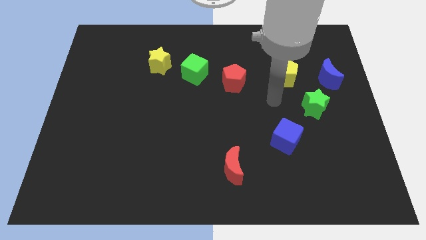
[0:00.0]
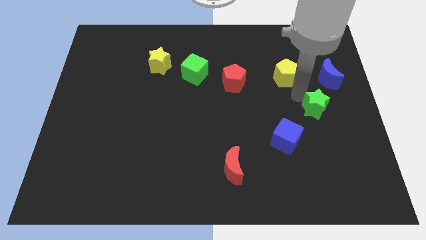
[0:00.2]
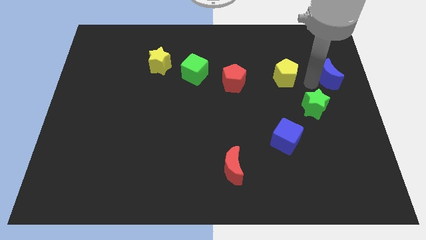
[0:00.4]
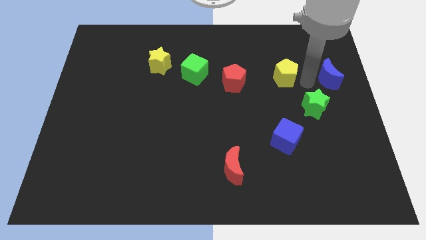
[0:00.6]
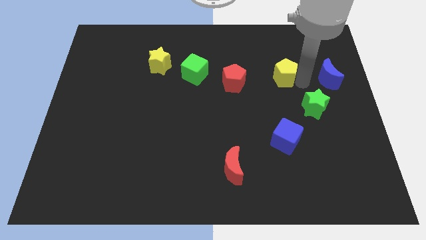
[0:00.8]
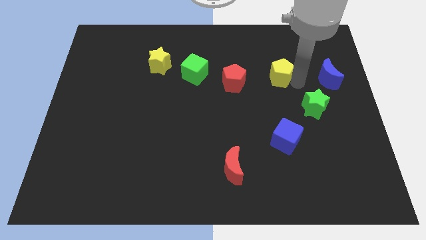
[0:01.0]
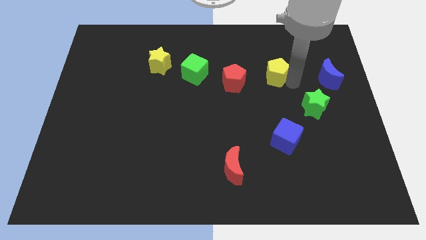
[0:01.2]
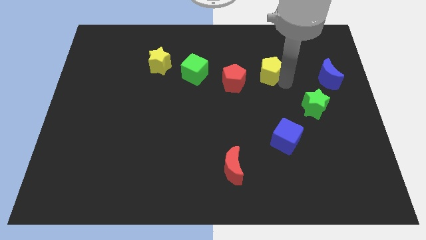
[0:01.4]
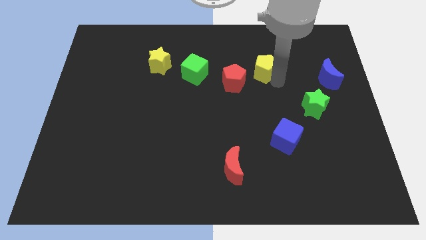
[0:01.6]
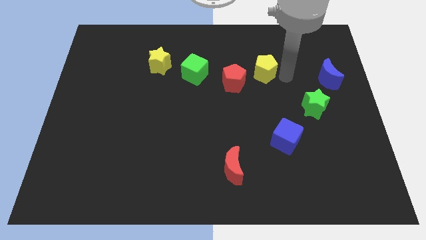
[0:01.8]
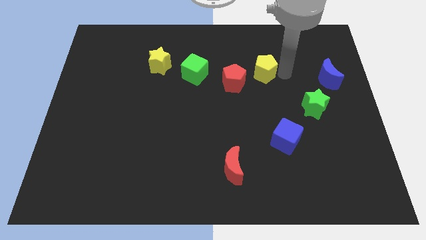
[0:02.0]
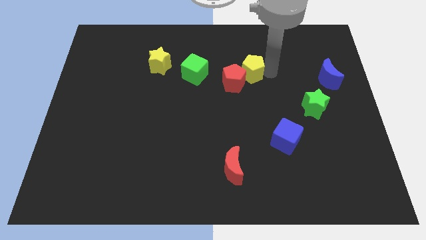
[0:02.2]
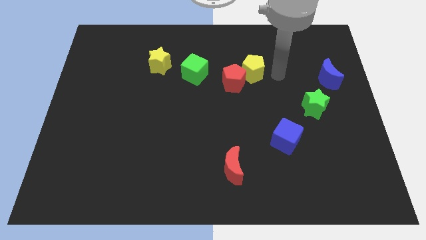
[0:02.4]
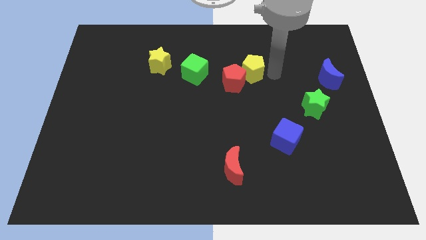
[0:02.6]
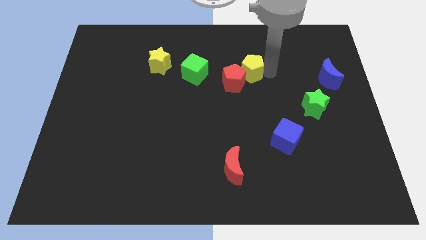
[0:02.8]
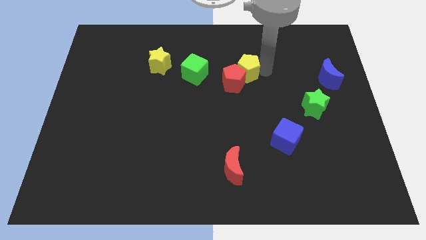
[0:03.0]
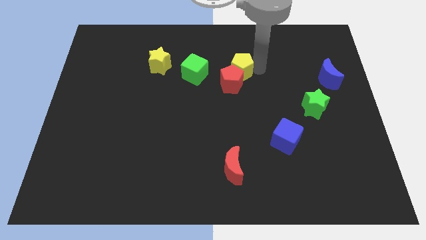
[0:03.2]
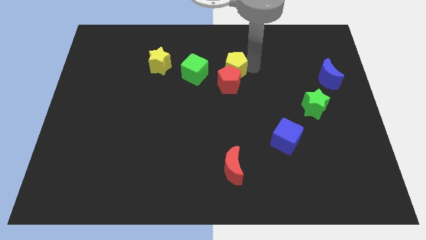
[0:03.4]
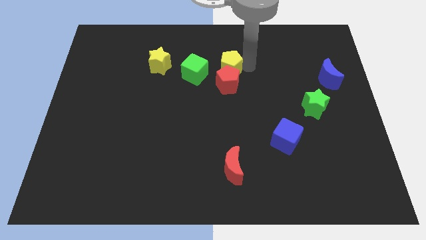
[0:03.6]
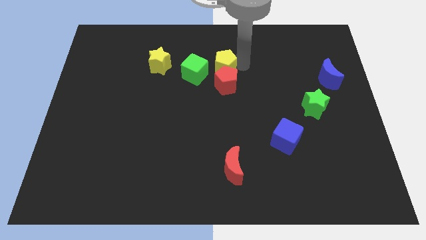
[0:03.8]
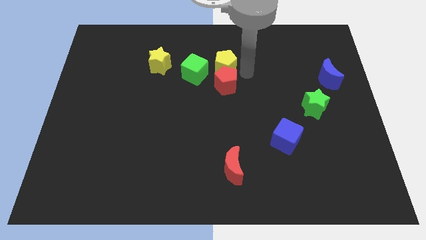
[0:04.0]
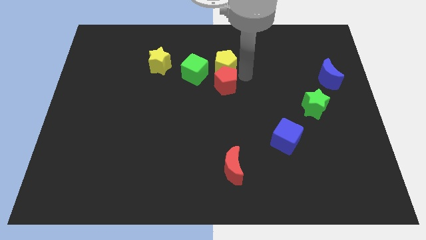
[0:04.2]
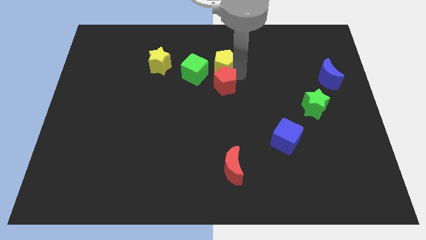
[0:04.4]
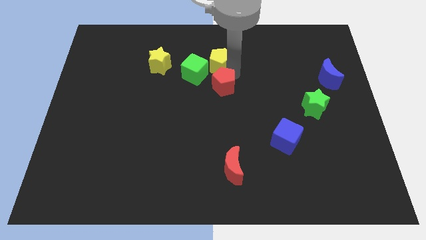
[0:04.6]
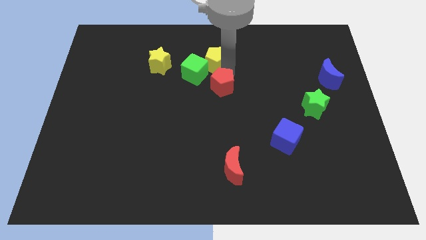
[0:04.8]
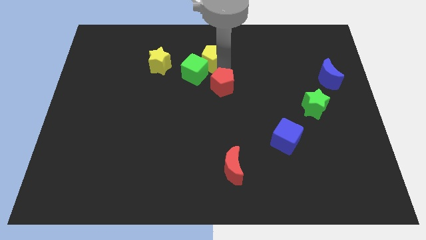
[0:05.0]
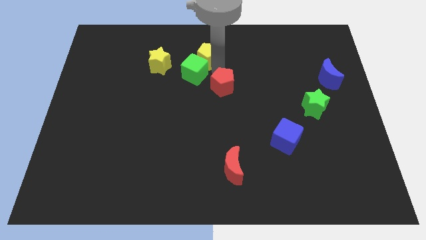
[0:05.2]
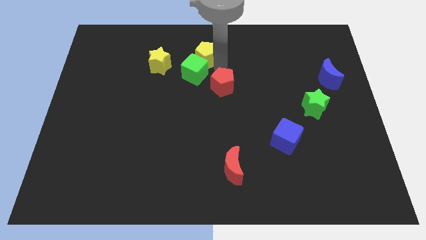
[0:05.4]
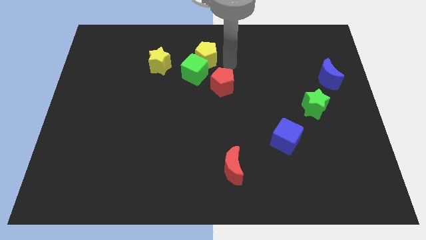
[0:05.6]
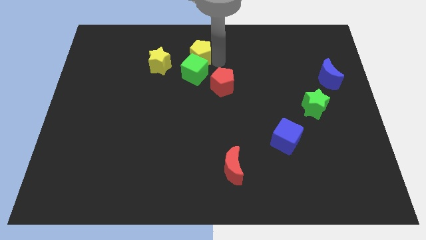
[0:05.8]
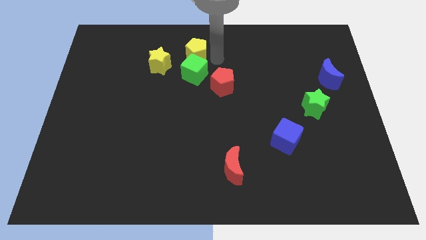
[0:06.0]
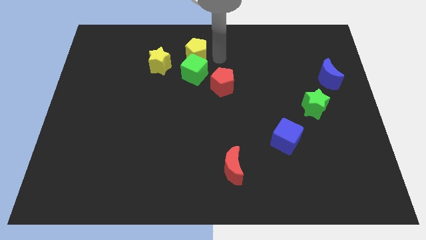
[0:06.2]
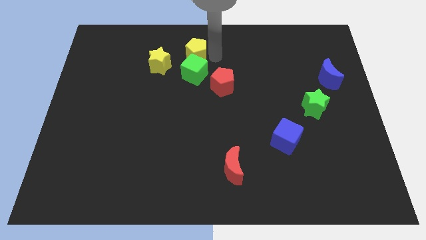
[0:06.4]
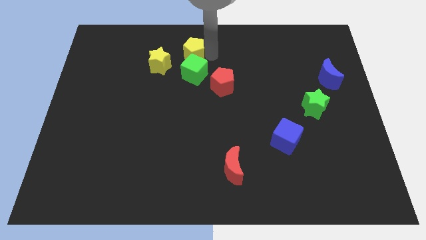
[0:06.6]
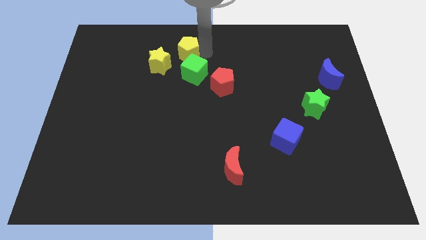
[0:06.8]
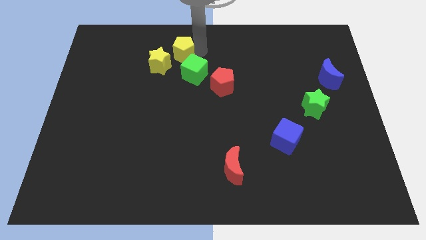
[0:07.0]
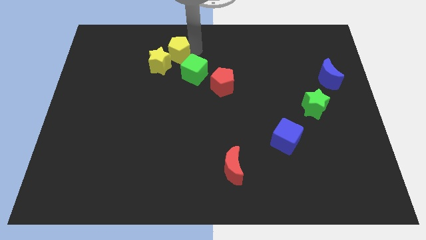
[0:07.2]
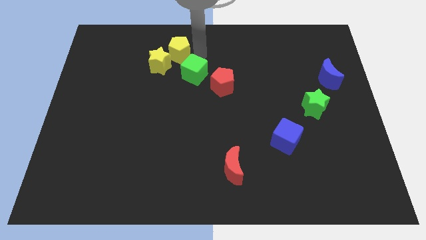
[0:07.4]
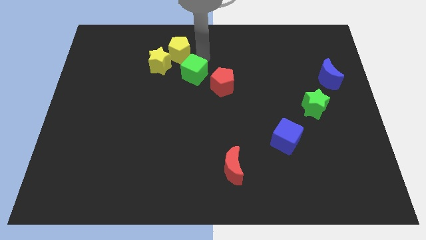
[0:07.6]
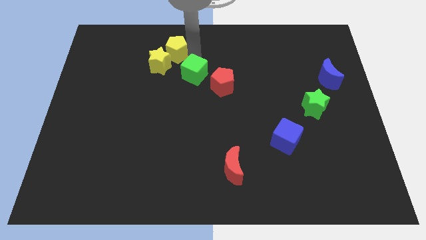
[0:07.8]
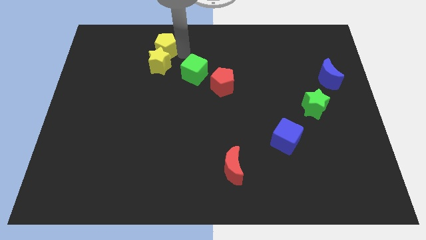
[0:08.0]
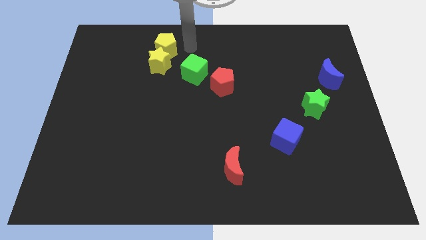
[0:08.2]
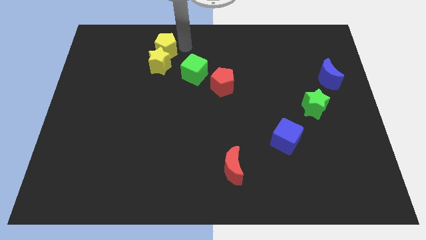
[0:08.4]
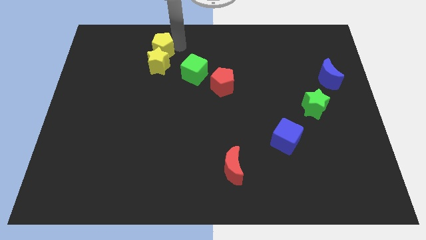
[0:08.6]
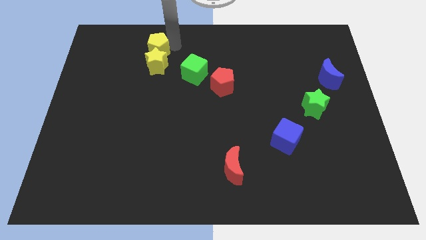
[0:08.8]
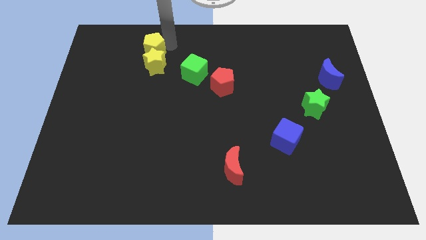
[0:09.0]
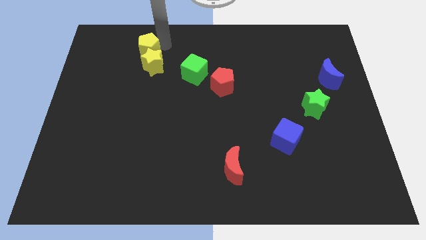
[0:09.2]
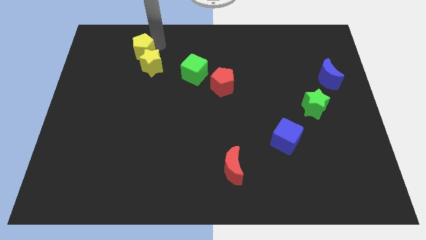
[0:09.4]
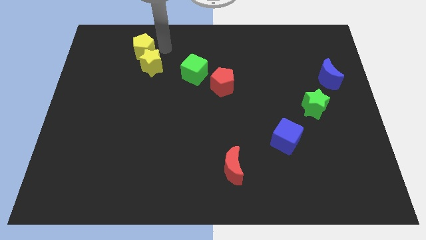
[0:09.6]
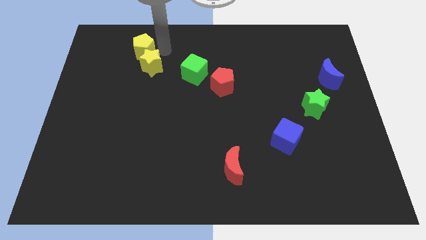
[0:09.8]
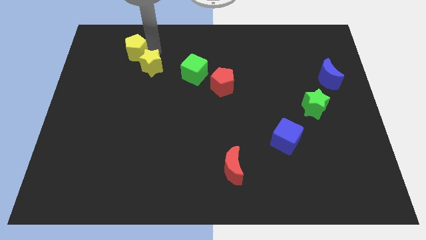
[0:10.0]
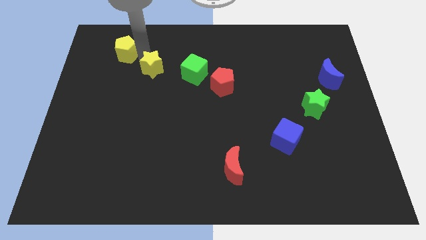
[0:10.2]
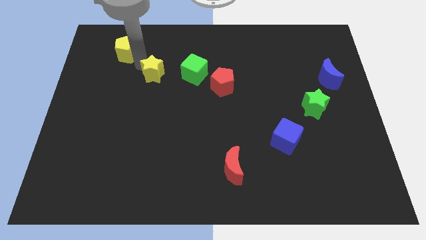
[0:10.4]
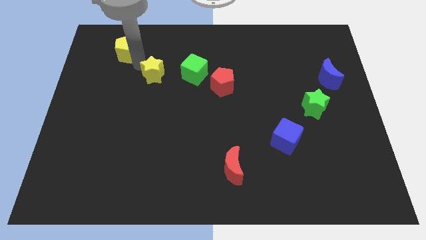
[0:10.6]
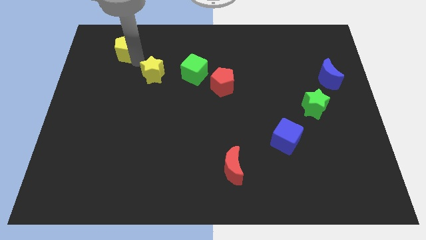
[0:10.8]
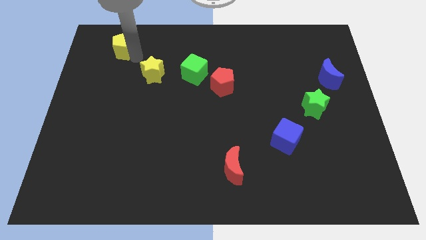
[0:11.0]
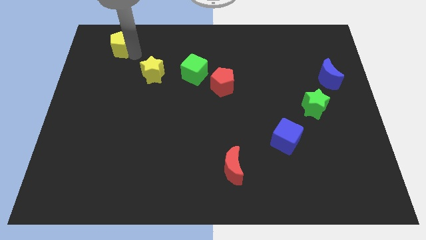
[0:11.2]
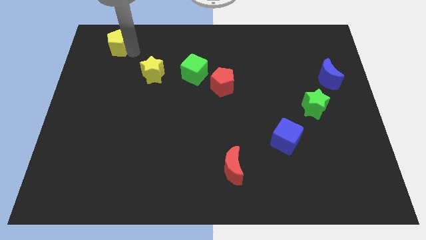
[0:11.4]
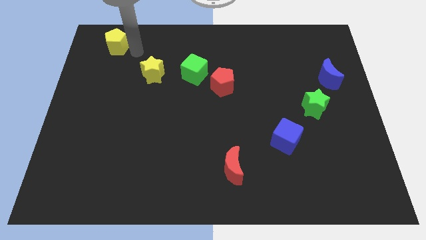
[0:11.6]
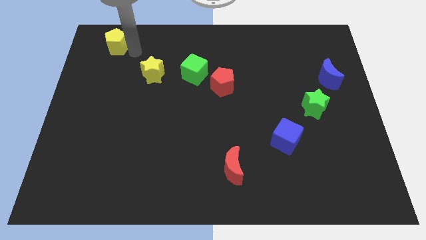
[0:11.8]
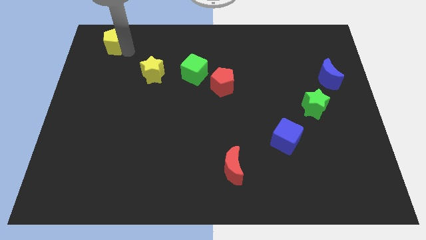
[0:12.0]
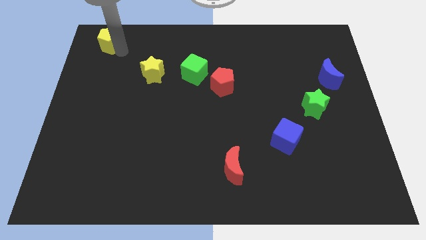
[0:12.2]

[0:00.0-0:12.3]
put the yellow pentagon to the top left of the board

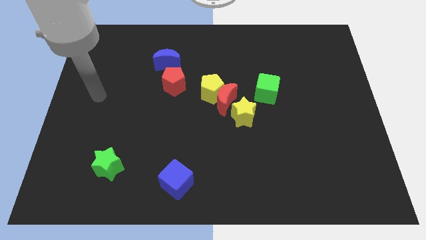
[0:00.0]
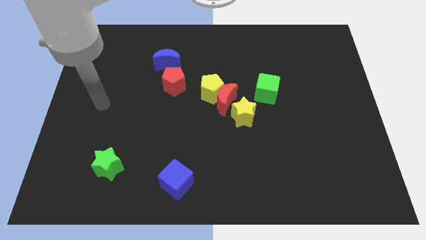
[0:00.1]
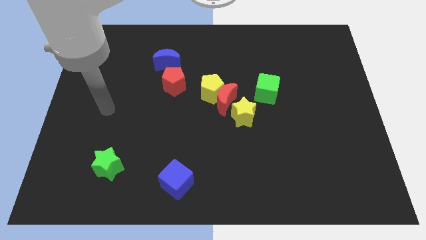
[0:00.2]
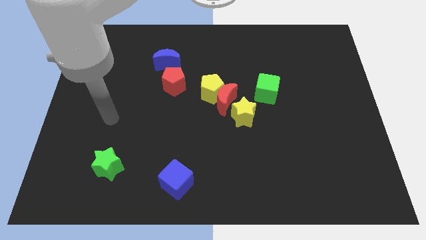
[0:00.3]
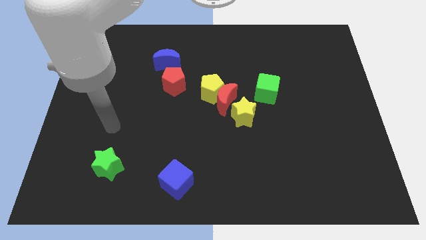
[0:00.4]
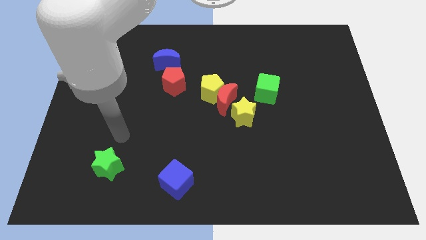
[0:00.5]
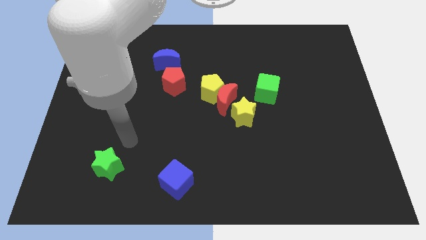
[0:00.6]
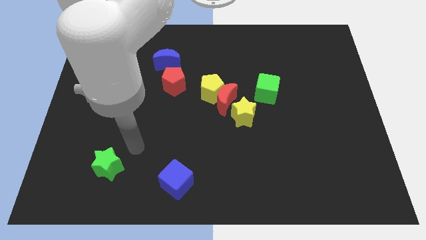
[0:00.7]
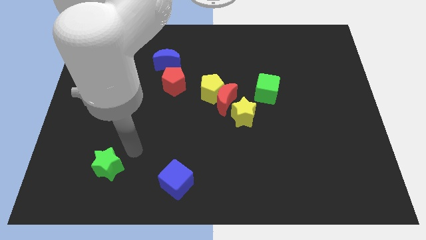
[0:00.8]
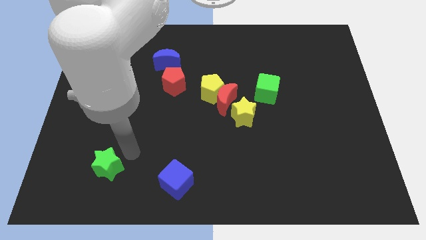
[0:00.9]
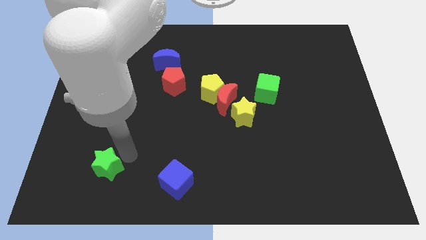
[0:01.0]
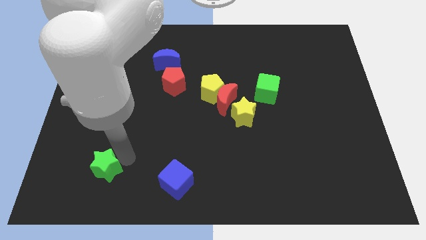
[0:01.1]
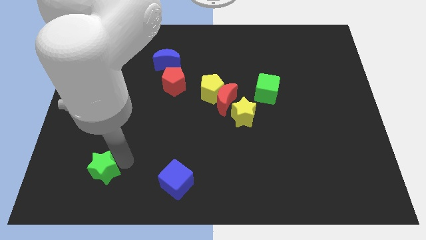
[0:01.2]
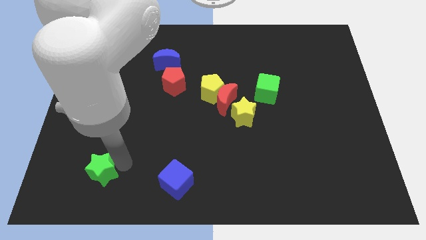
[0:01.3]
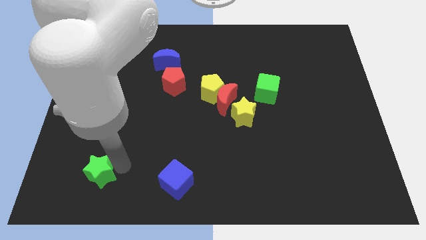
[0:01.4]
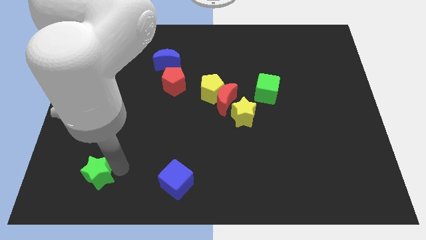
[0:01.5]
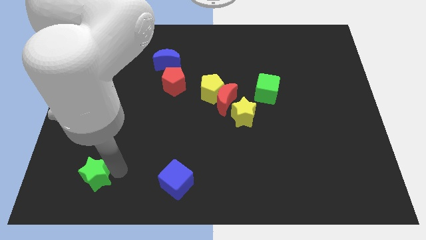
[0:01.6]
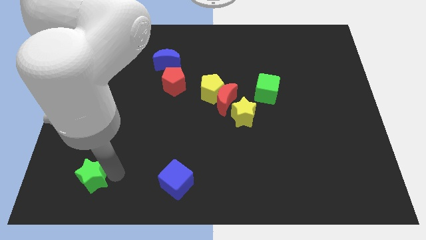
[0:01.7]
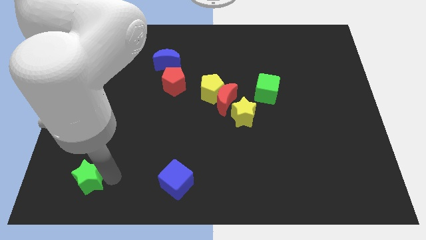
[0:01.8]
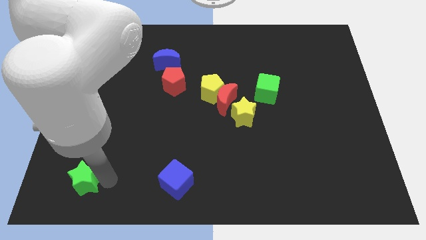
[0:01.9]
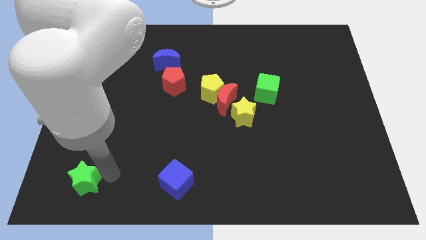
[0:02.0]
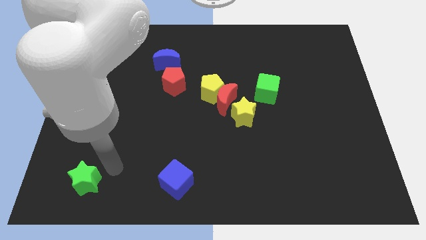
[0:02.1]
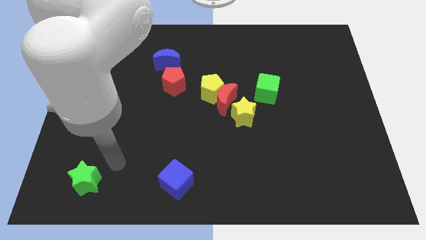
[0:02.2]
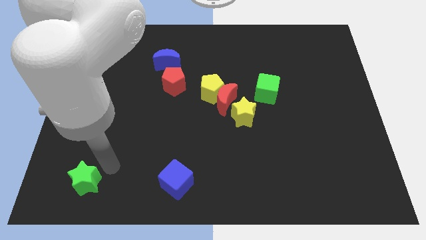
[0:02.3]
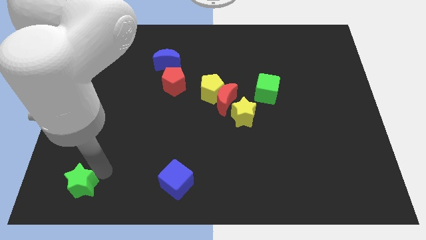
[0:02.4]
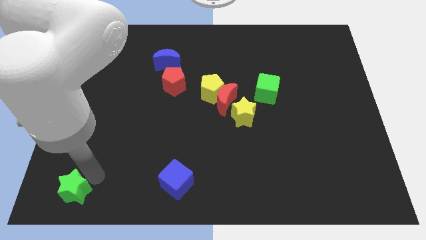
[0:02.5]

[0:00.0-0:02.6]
push the green star to the bottom left corner
